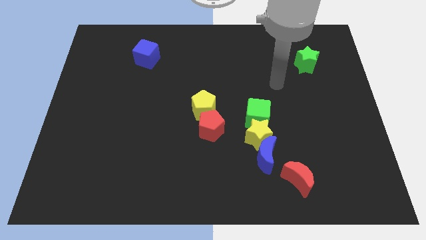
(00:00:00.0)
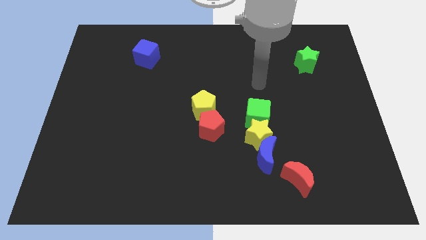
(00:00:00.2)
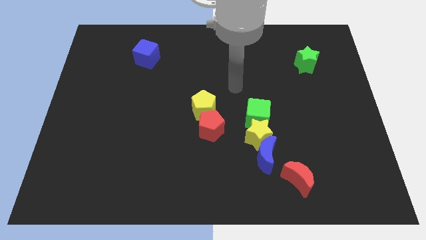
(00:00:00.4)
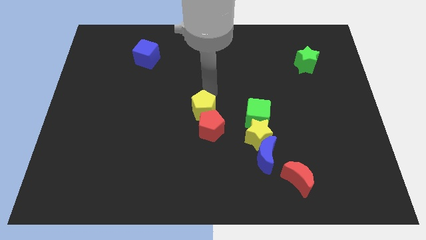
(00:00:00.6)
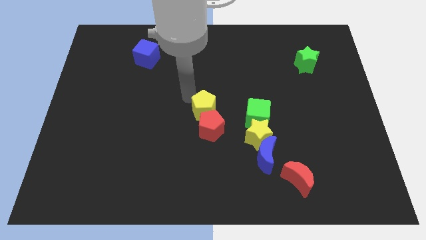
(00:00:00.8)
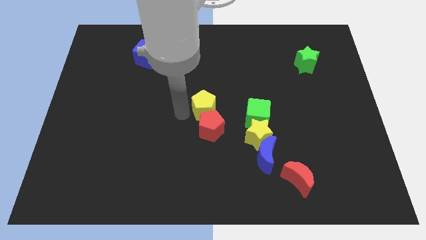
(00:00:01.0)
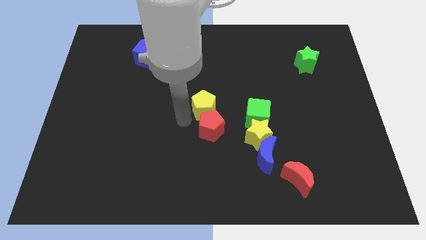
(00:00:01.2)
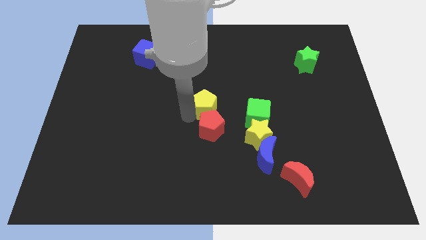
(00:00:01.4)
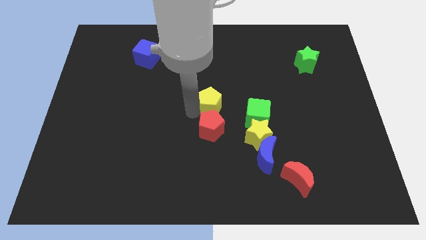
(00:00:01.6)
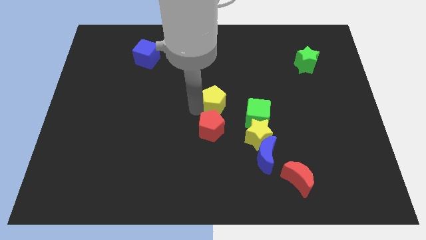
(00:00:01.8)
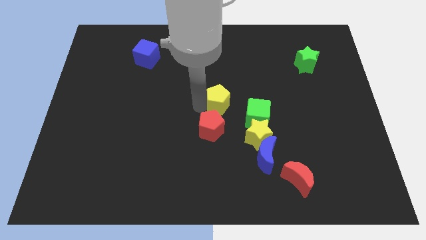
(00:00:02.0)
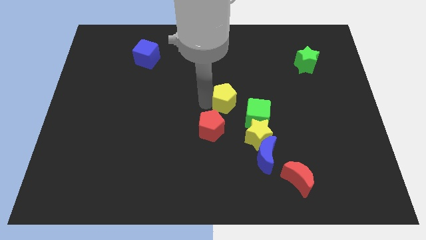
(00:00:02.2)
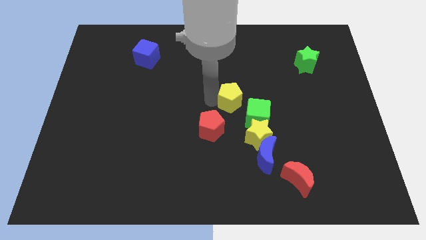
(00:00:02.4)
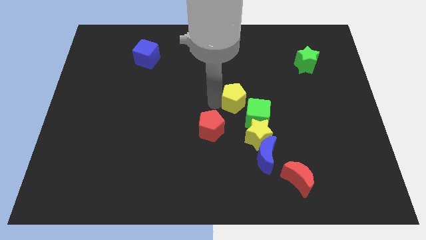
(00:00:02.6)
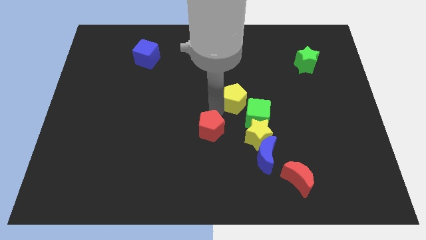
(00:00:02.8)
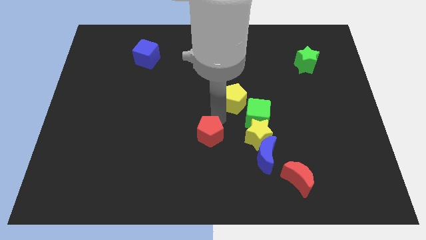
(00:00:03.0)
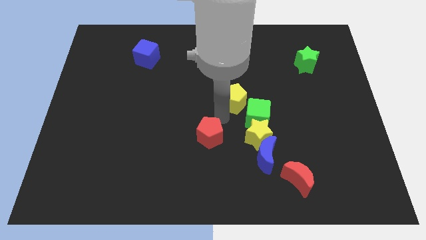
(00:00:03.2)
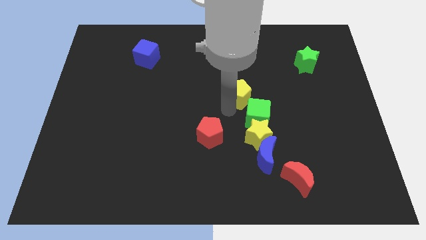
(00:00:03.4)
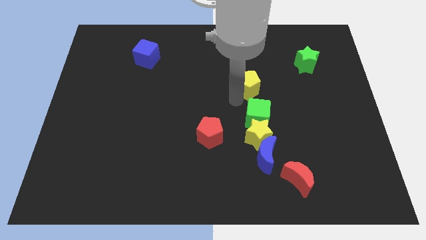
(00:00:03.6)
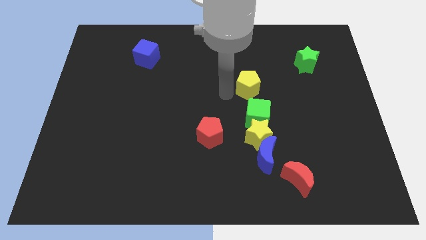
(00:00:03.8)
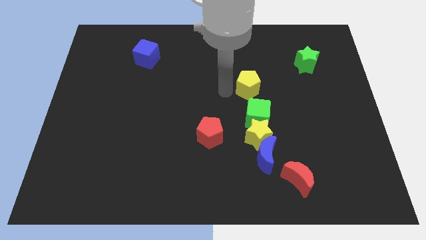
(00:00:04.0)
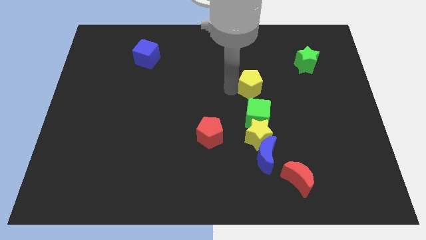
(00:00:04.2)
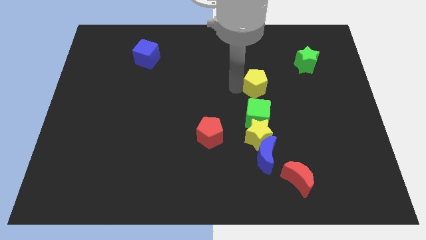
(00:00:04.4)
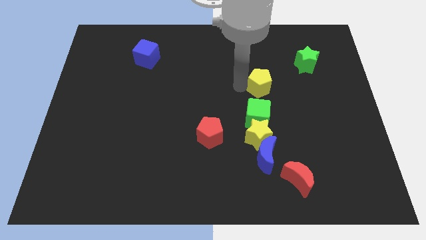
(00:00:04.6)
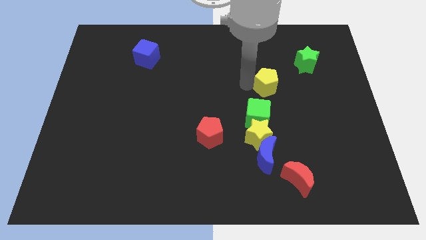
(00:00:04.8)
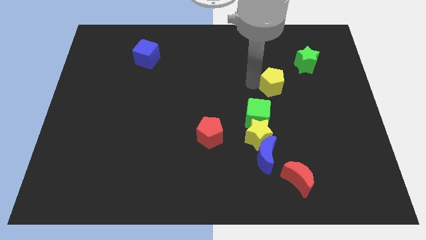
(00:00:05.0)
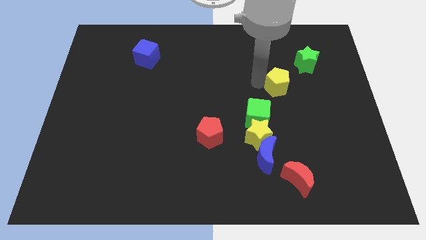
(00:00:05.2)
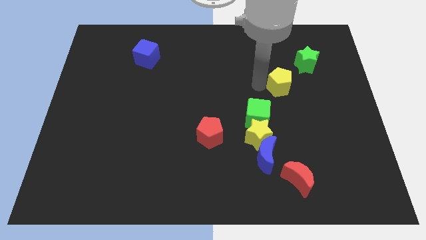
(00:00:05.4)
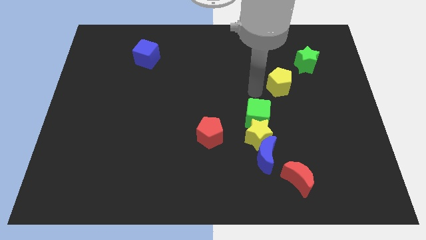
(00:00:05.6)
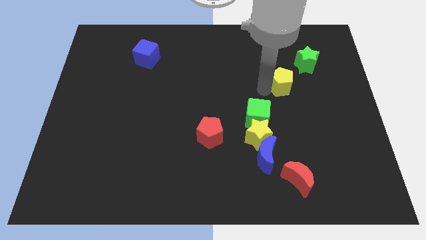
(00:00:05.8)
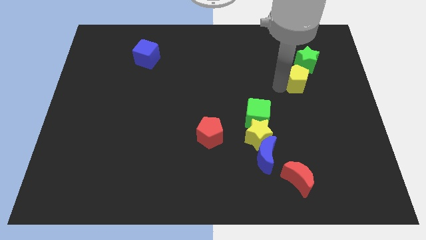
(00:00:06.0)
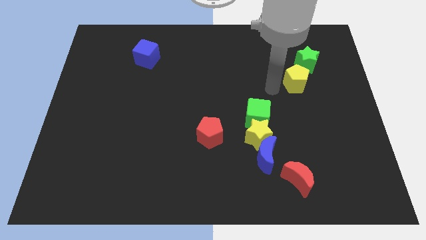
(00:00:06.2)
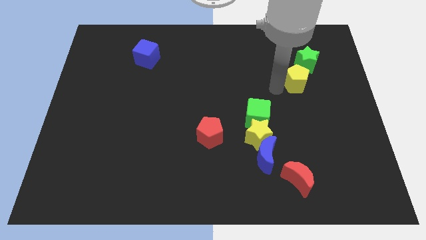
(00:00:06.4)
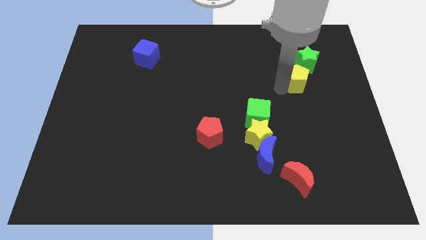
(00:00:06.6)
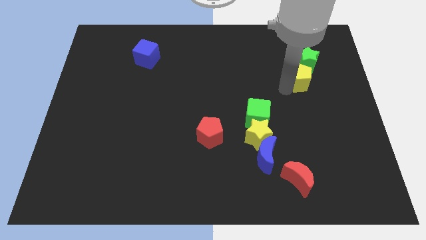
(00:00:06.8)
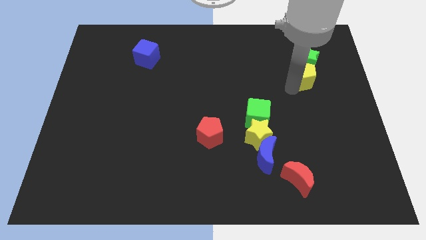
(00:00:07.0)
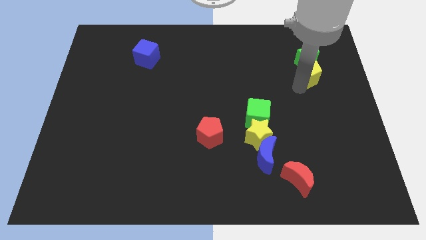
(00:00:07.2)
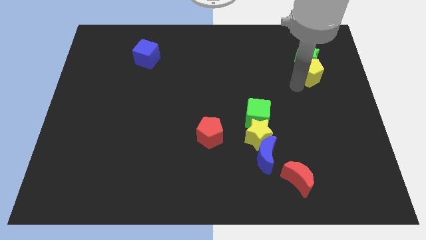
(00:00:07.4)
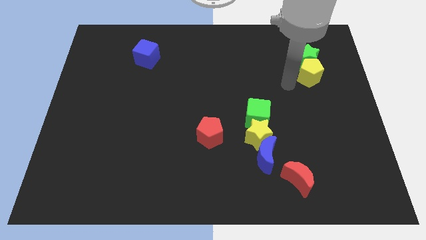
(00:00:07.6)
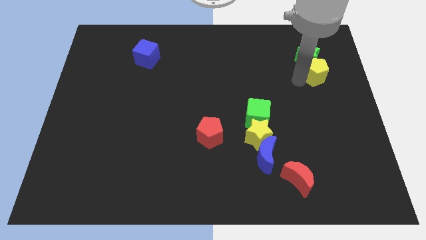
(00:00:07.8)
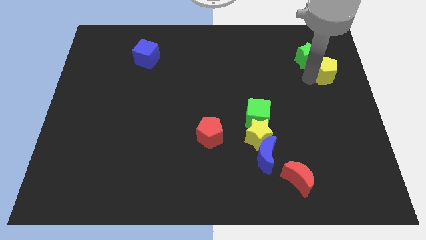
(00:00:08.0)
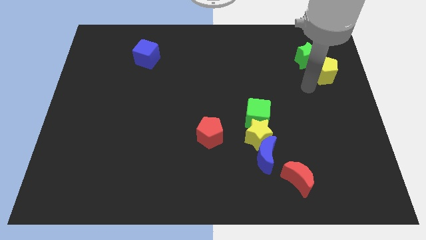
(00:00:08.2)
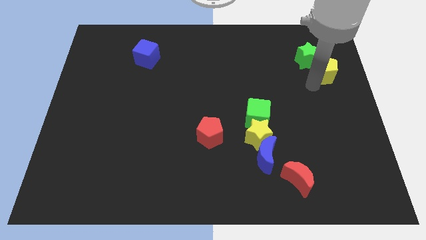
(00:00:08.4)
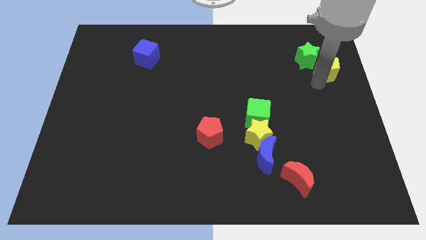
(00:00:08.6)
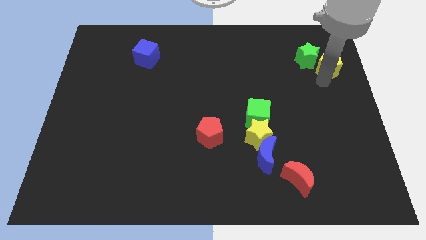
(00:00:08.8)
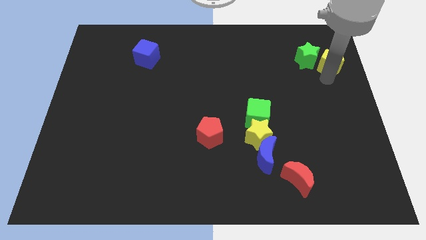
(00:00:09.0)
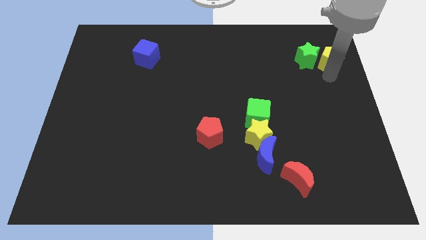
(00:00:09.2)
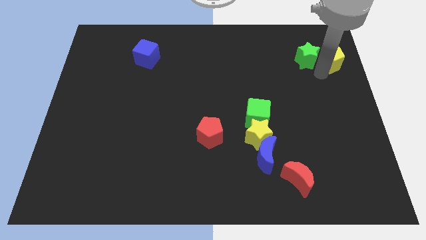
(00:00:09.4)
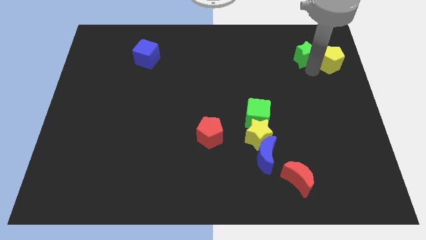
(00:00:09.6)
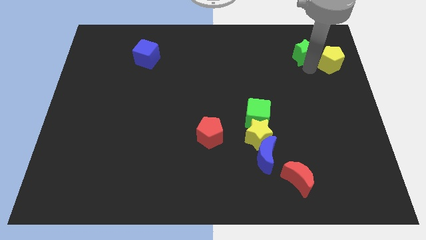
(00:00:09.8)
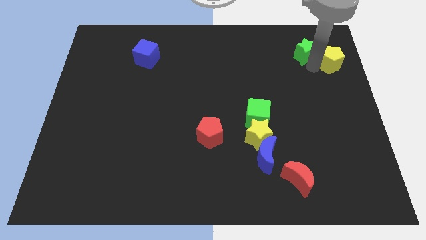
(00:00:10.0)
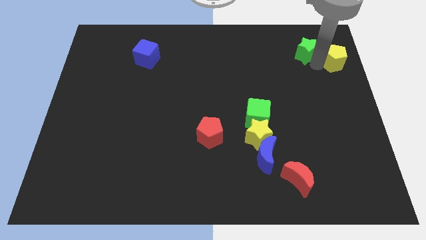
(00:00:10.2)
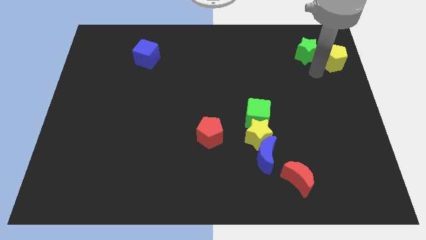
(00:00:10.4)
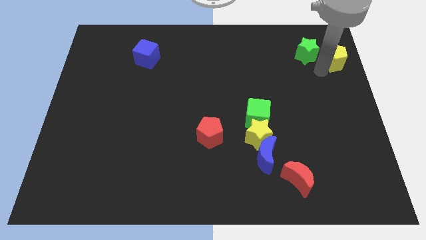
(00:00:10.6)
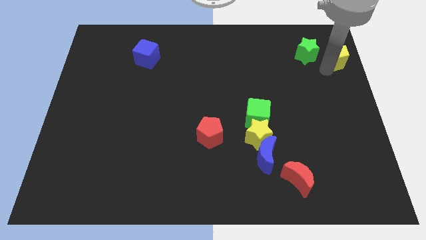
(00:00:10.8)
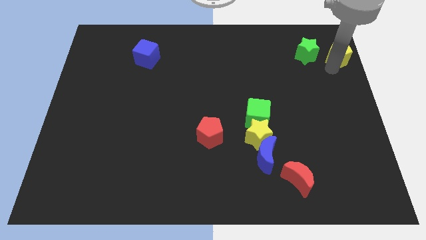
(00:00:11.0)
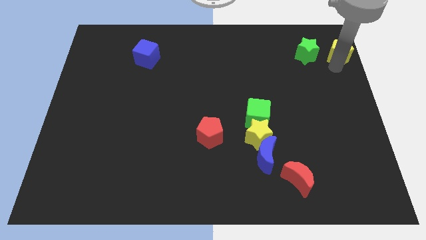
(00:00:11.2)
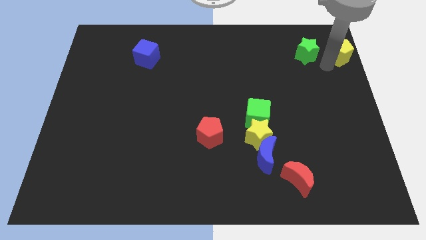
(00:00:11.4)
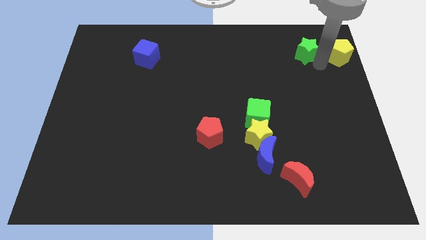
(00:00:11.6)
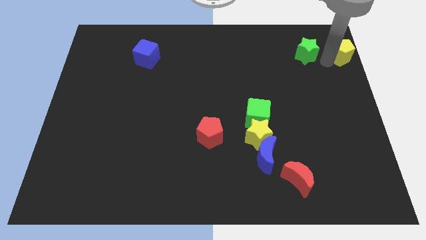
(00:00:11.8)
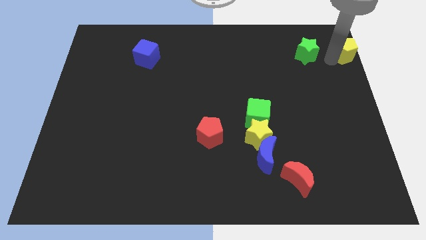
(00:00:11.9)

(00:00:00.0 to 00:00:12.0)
move the yellow pentagon to the top right corner
